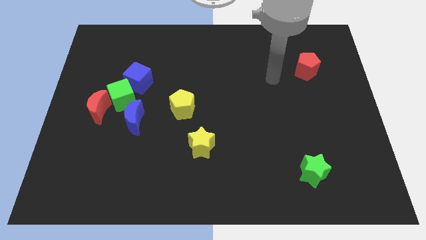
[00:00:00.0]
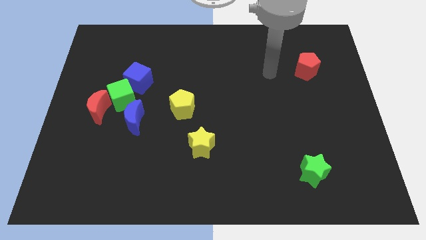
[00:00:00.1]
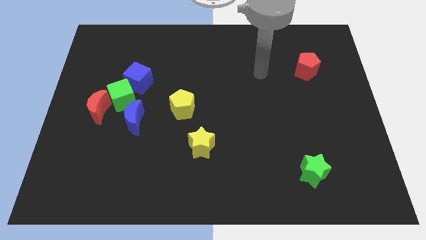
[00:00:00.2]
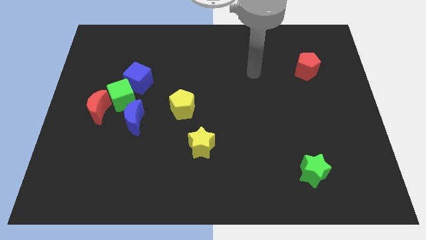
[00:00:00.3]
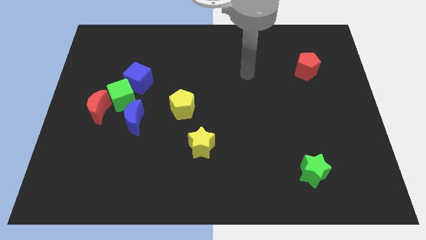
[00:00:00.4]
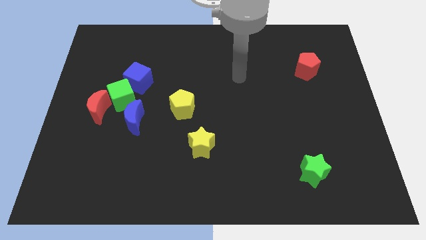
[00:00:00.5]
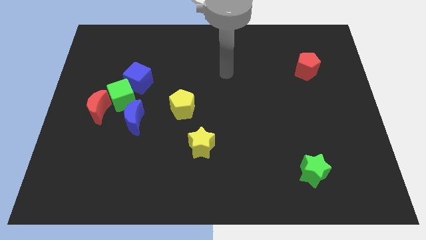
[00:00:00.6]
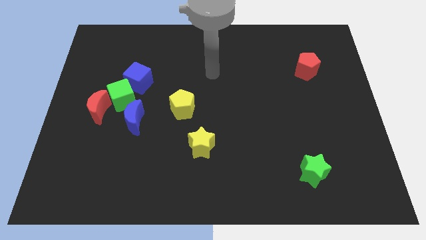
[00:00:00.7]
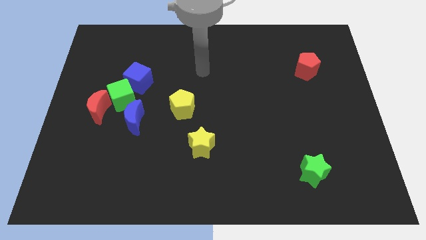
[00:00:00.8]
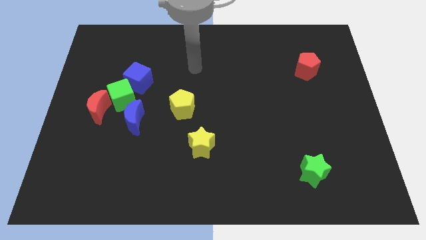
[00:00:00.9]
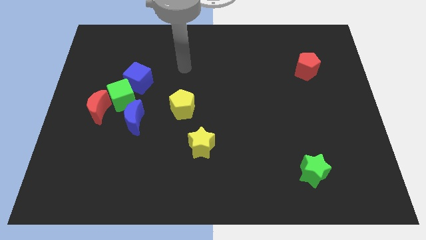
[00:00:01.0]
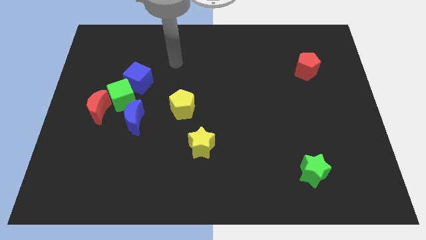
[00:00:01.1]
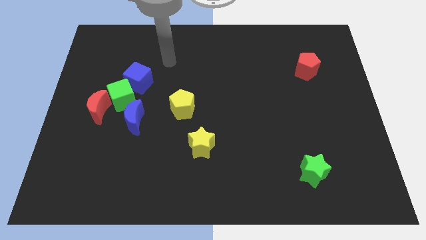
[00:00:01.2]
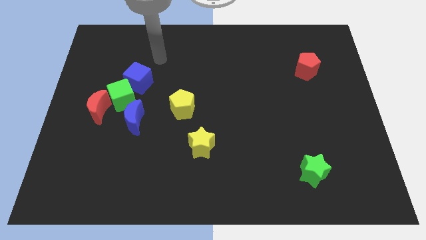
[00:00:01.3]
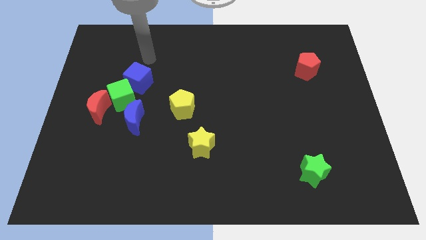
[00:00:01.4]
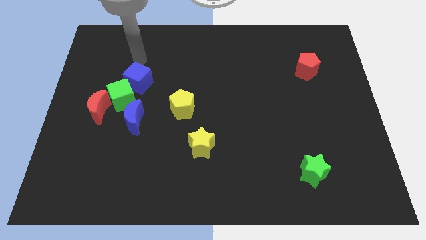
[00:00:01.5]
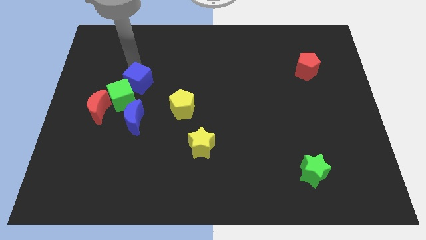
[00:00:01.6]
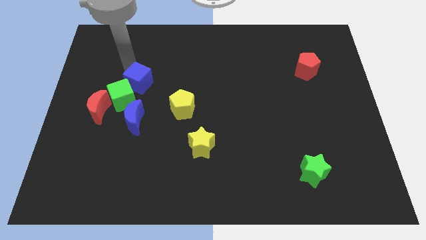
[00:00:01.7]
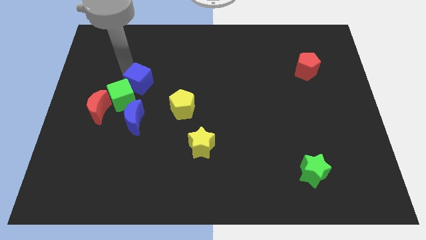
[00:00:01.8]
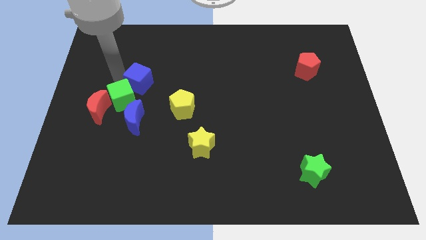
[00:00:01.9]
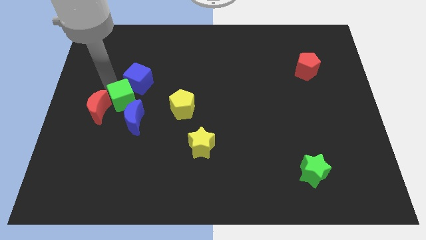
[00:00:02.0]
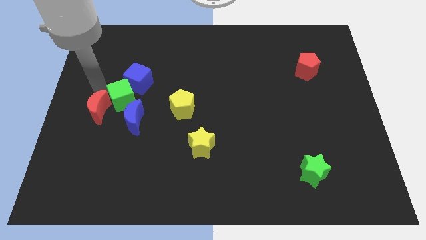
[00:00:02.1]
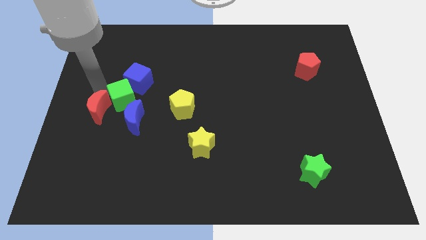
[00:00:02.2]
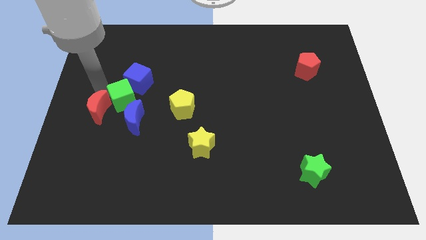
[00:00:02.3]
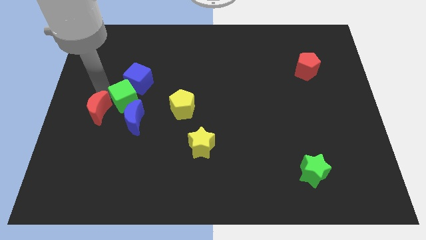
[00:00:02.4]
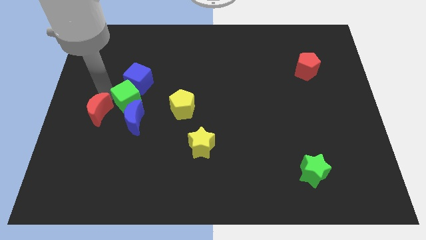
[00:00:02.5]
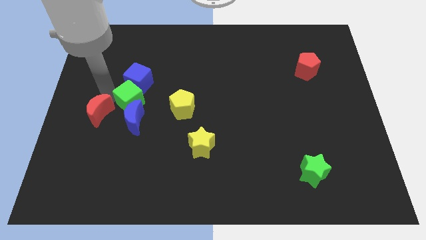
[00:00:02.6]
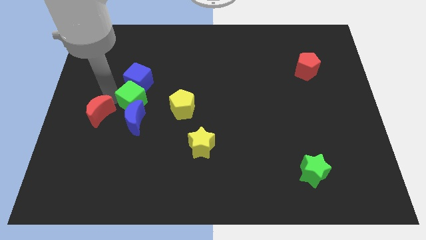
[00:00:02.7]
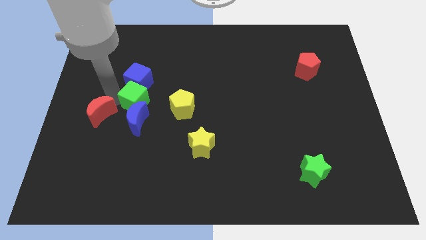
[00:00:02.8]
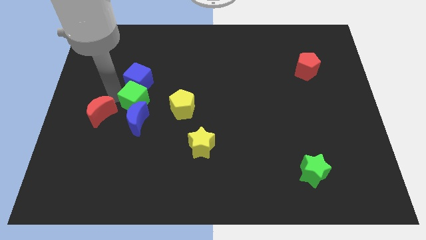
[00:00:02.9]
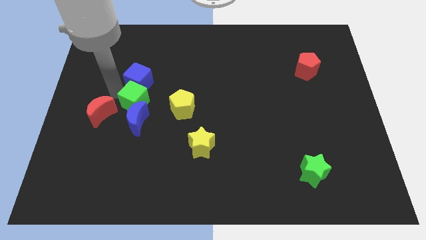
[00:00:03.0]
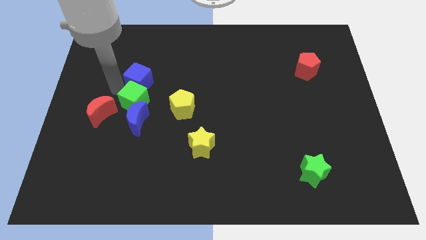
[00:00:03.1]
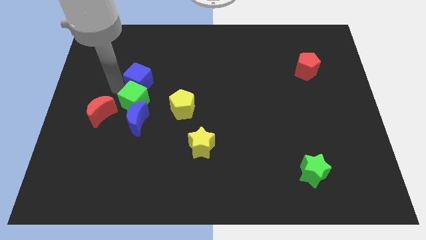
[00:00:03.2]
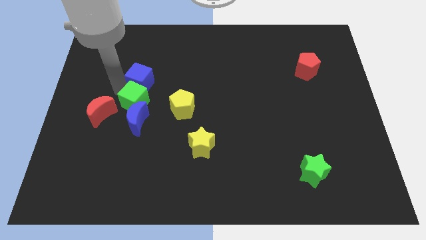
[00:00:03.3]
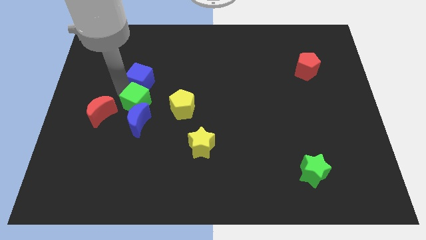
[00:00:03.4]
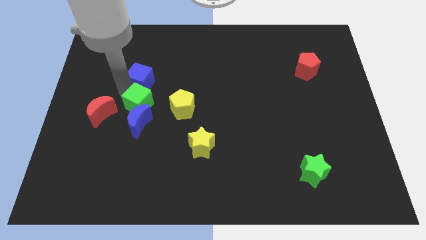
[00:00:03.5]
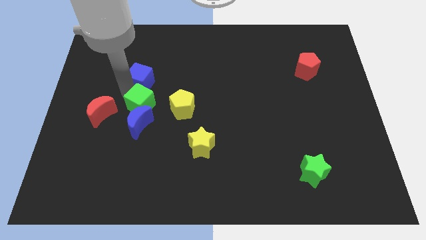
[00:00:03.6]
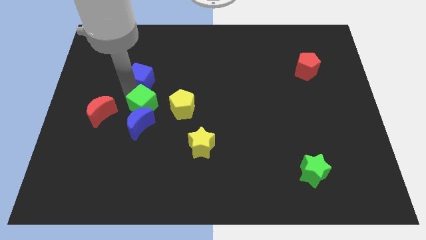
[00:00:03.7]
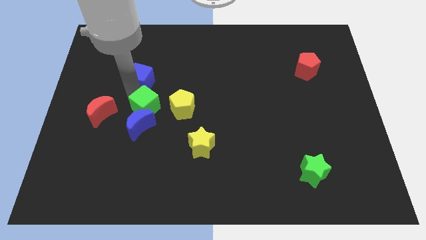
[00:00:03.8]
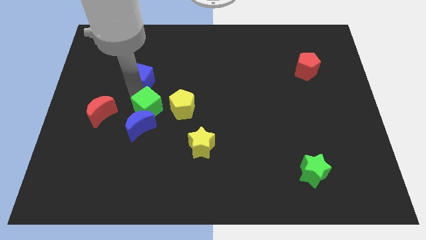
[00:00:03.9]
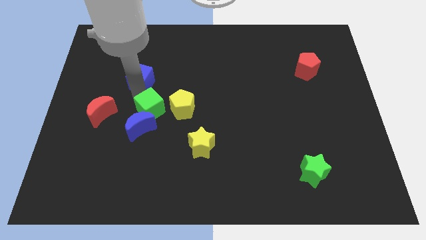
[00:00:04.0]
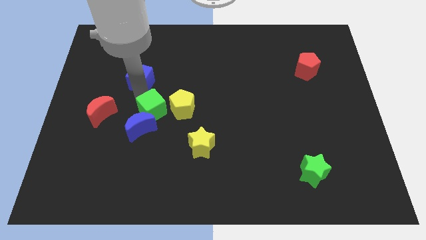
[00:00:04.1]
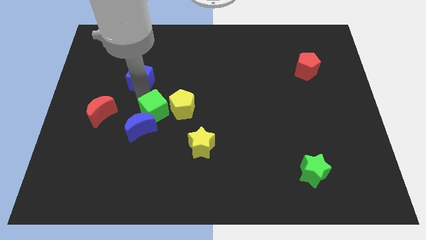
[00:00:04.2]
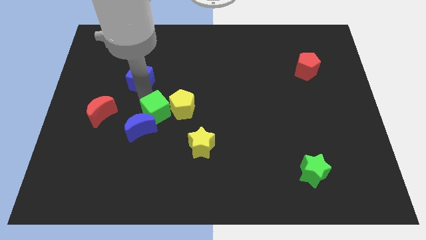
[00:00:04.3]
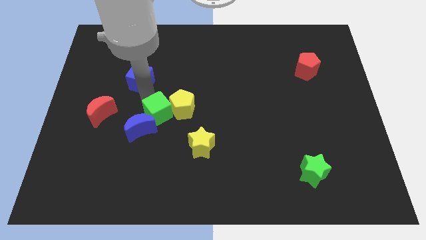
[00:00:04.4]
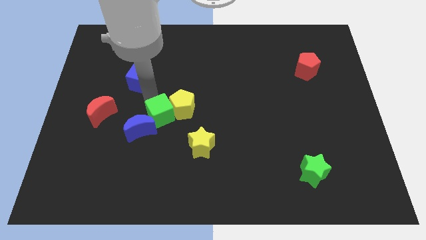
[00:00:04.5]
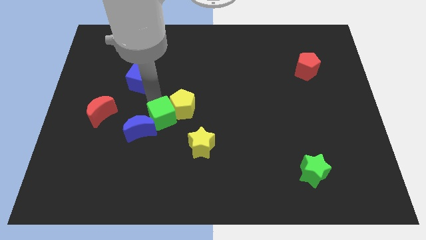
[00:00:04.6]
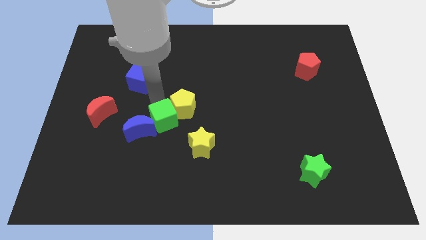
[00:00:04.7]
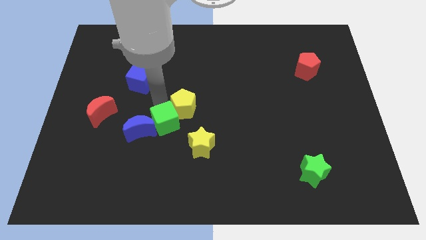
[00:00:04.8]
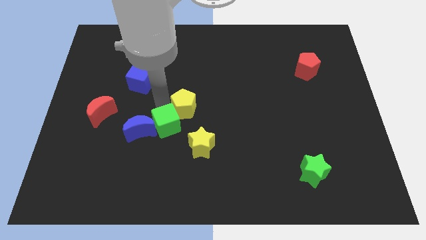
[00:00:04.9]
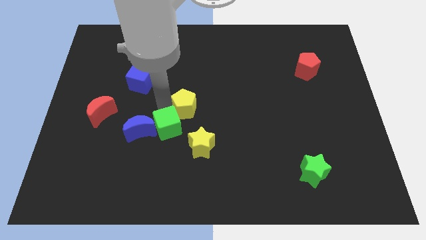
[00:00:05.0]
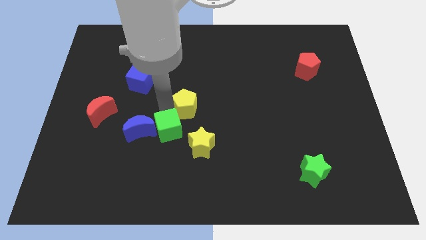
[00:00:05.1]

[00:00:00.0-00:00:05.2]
push the green cube diagonally down and to the right of the blue moon

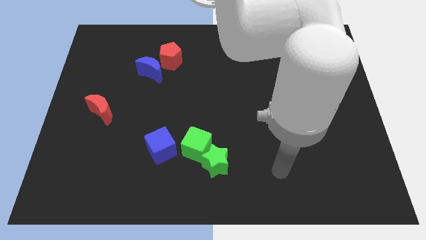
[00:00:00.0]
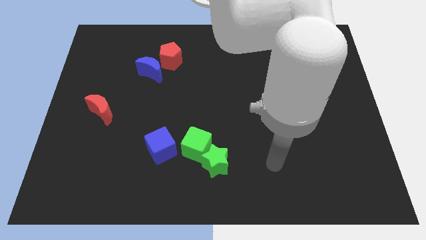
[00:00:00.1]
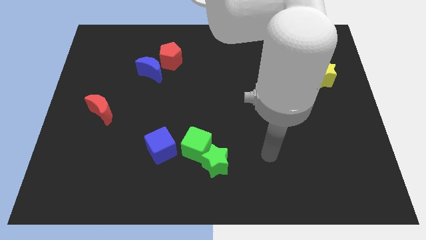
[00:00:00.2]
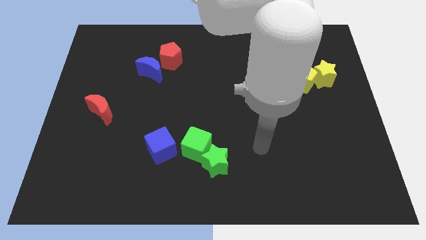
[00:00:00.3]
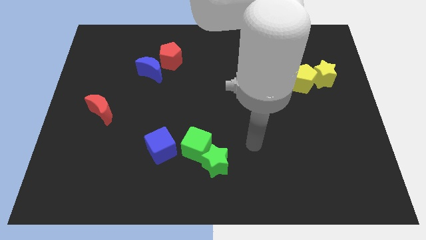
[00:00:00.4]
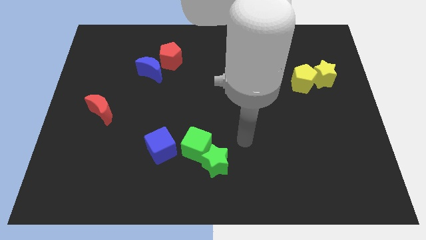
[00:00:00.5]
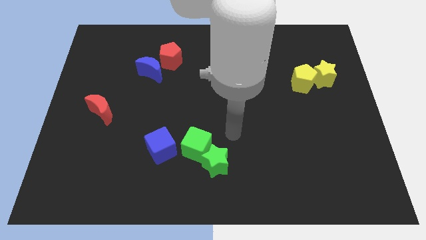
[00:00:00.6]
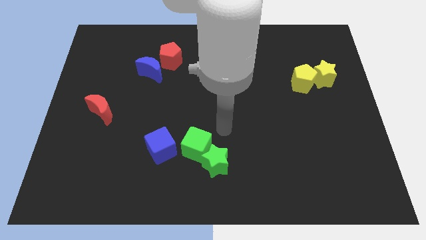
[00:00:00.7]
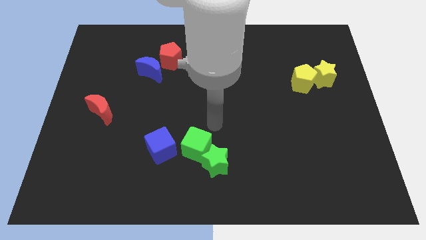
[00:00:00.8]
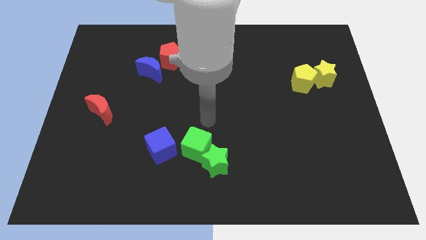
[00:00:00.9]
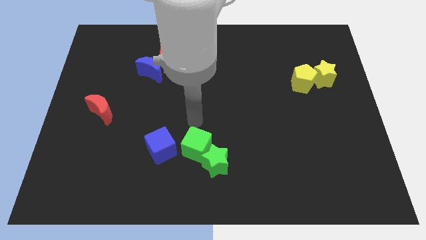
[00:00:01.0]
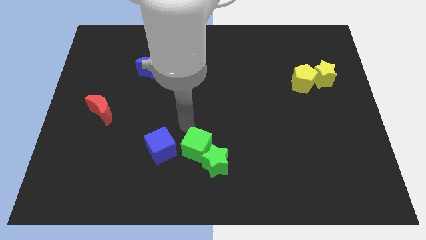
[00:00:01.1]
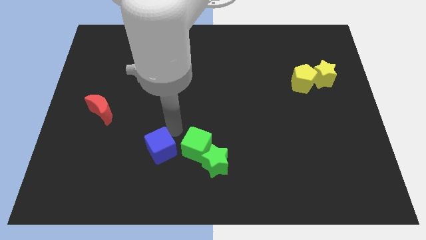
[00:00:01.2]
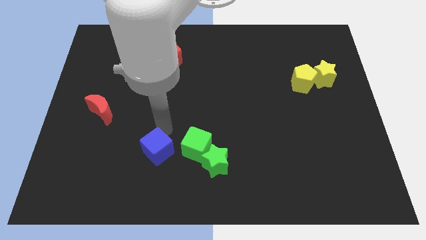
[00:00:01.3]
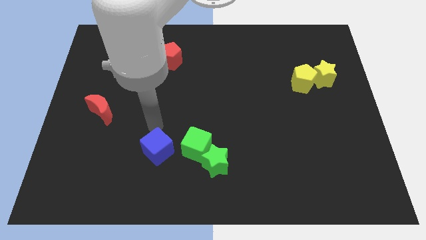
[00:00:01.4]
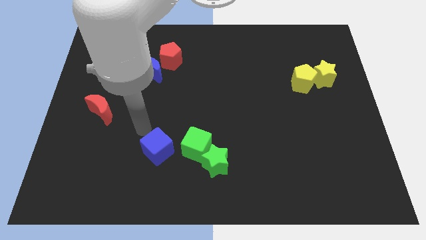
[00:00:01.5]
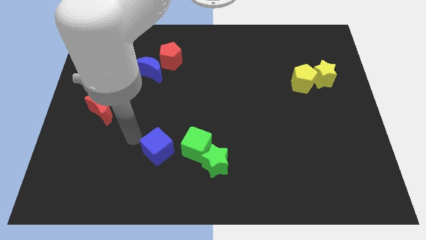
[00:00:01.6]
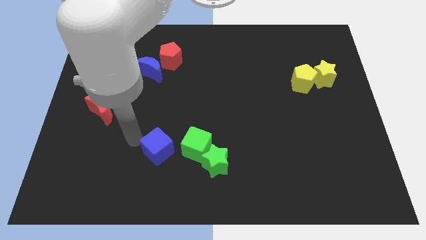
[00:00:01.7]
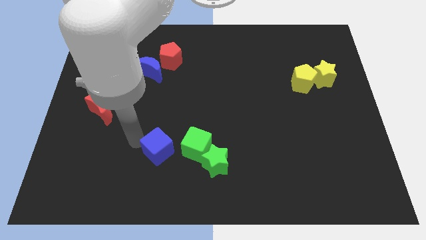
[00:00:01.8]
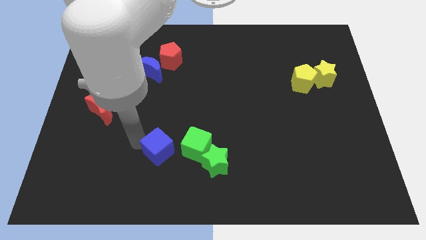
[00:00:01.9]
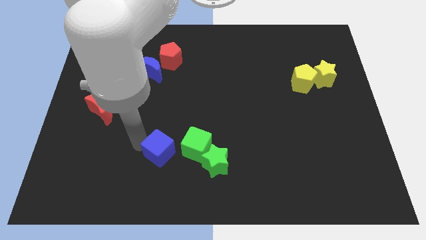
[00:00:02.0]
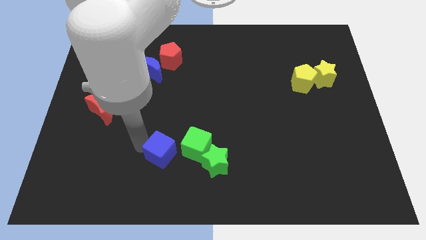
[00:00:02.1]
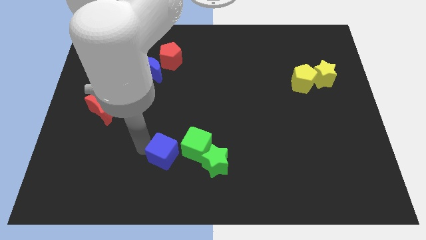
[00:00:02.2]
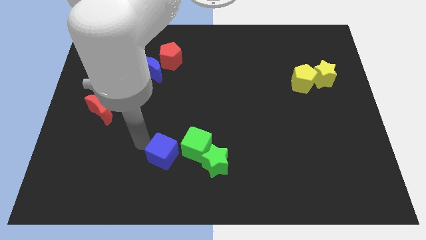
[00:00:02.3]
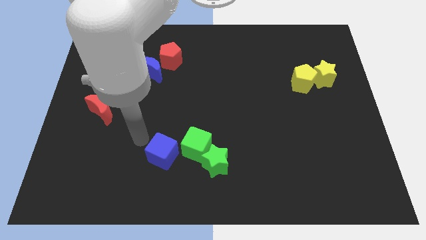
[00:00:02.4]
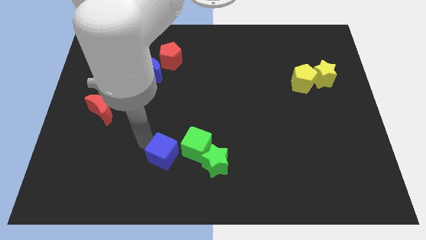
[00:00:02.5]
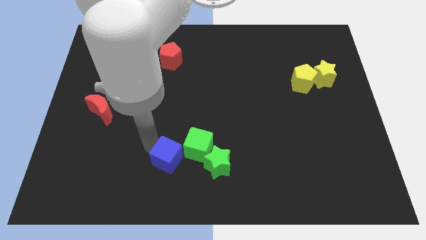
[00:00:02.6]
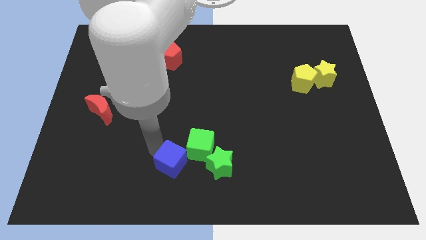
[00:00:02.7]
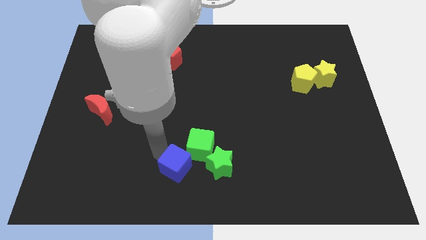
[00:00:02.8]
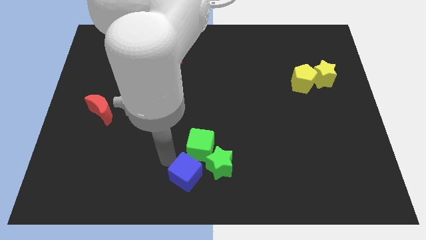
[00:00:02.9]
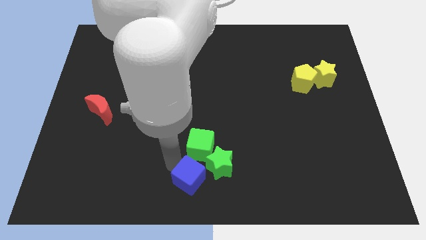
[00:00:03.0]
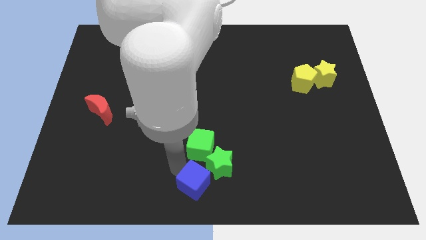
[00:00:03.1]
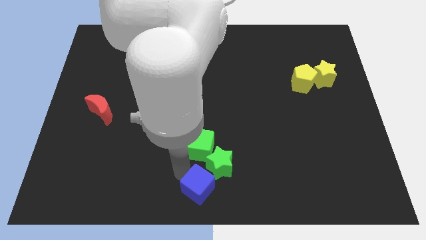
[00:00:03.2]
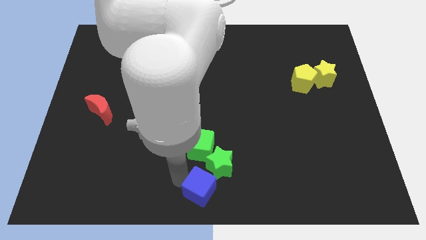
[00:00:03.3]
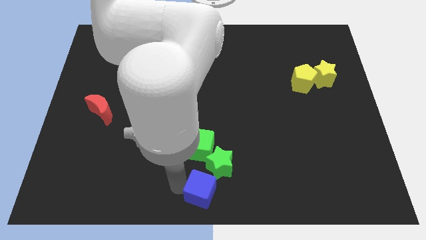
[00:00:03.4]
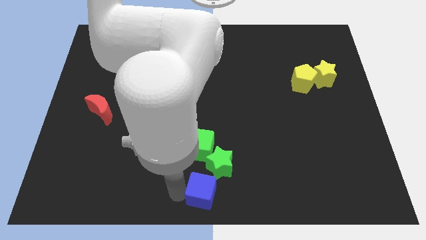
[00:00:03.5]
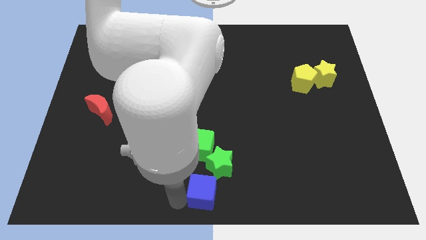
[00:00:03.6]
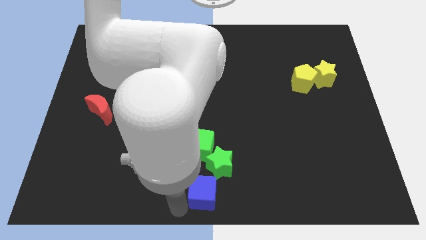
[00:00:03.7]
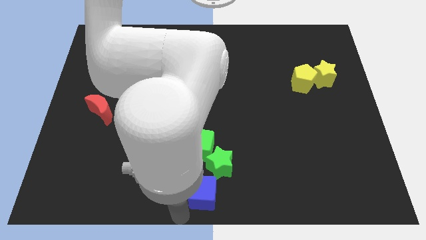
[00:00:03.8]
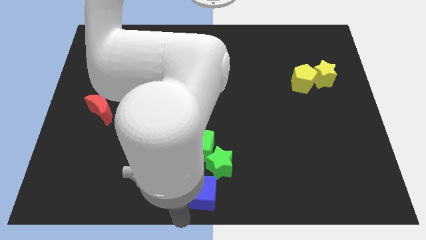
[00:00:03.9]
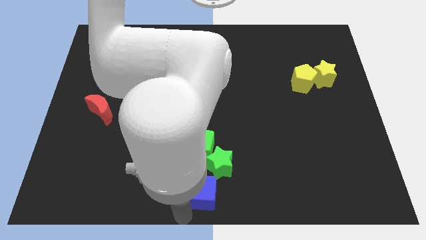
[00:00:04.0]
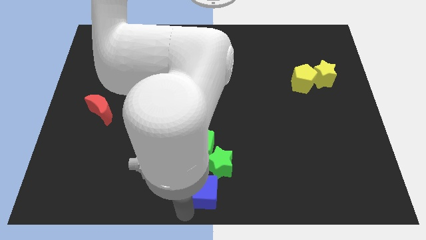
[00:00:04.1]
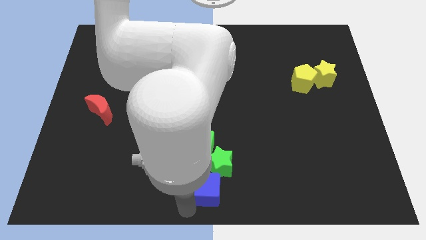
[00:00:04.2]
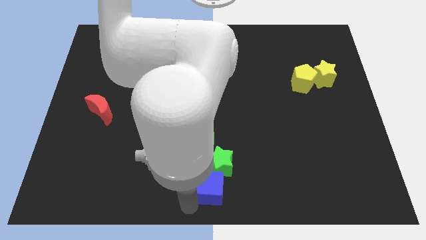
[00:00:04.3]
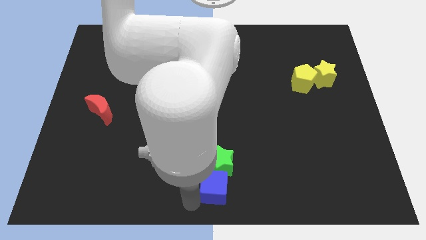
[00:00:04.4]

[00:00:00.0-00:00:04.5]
put the blue cube to the bottom right of the green cube
